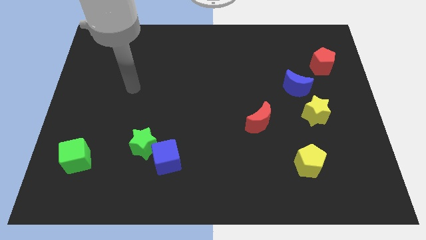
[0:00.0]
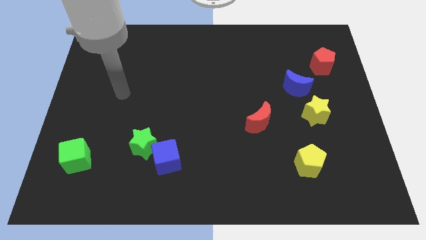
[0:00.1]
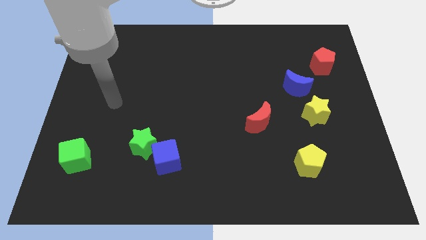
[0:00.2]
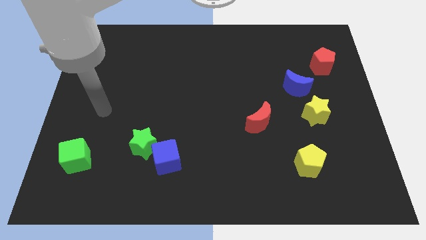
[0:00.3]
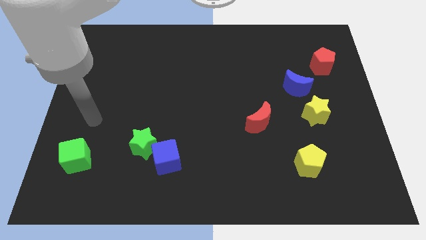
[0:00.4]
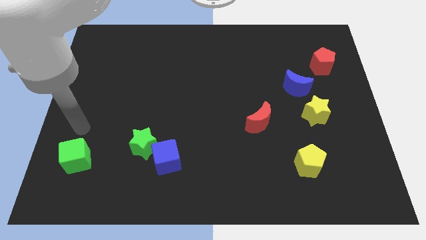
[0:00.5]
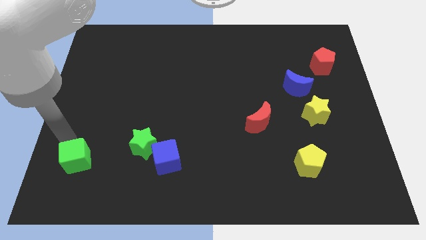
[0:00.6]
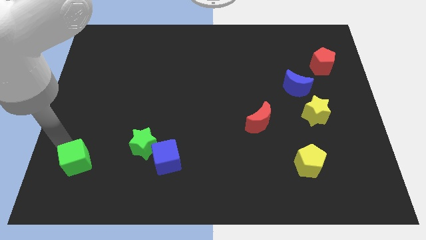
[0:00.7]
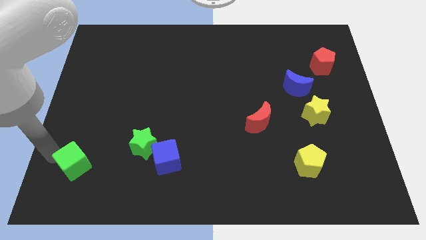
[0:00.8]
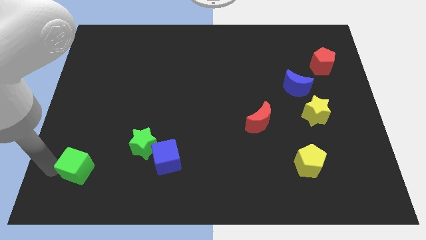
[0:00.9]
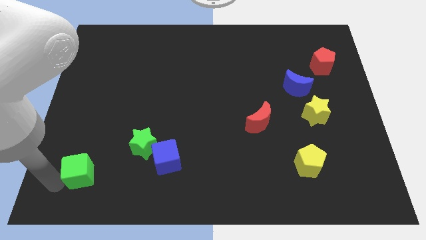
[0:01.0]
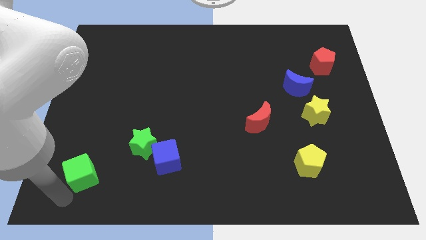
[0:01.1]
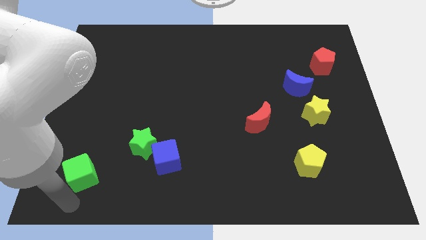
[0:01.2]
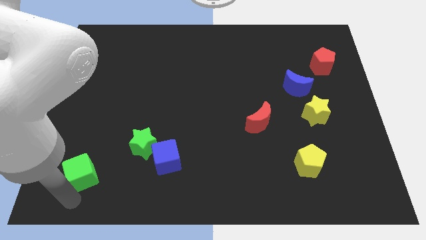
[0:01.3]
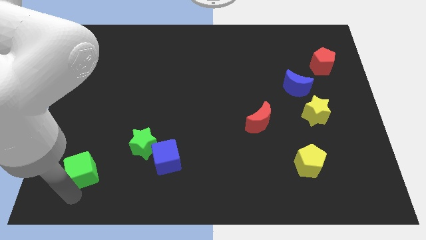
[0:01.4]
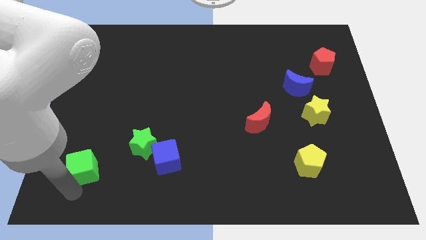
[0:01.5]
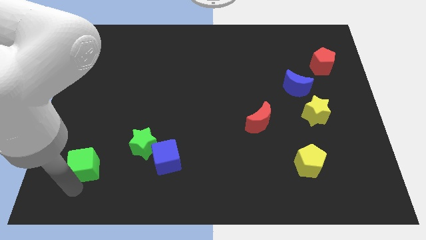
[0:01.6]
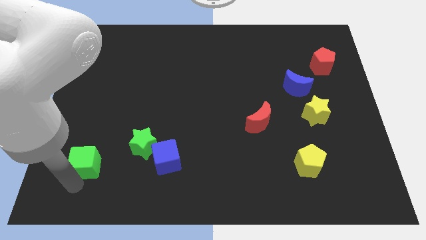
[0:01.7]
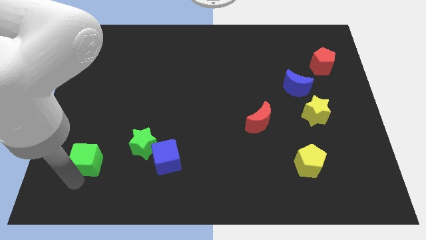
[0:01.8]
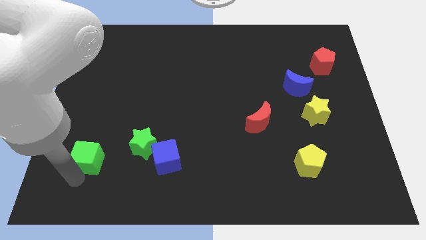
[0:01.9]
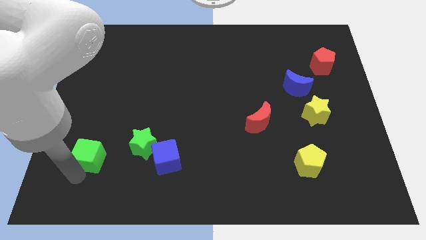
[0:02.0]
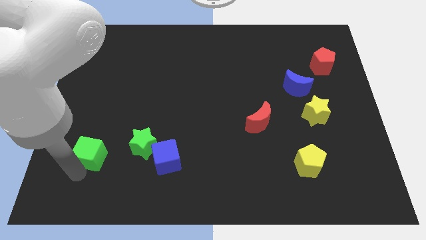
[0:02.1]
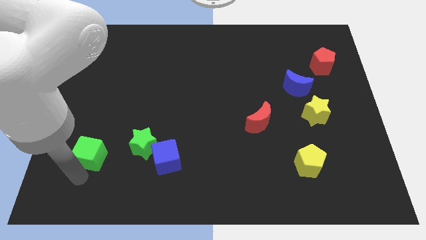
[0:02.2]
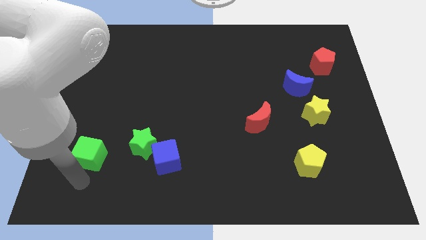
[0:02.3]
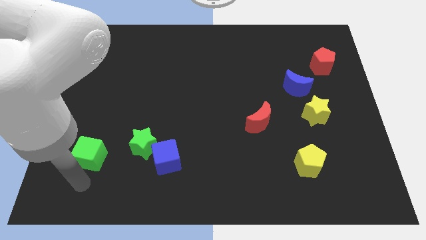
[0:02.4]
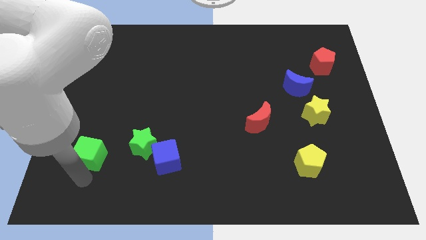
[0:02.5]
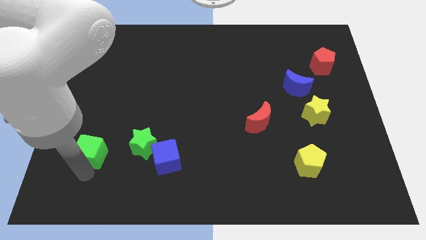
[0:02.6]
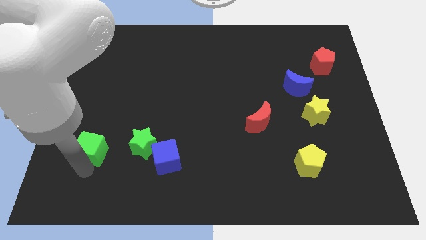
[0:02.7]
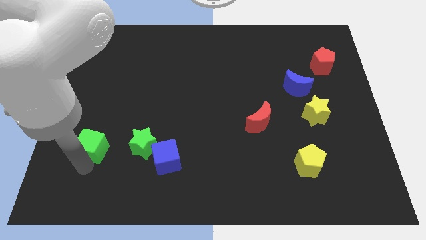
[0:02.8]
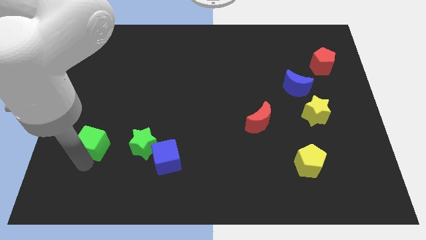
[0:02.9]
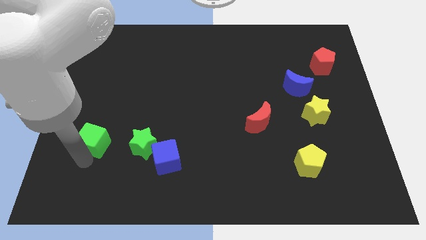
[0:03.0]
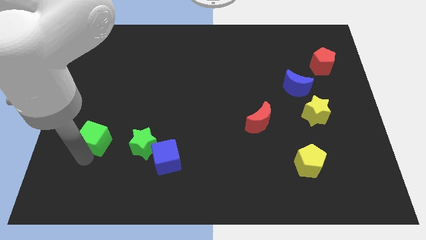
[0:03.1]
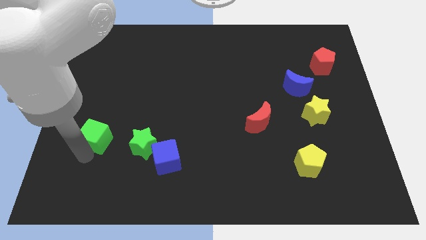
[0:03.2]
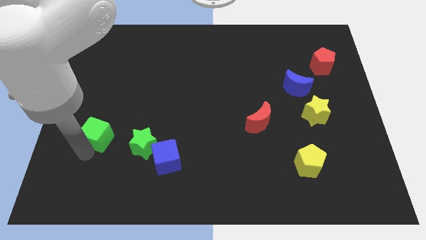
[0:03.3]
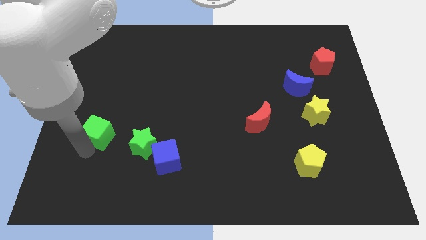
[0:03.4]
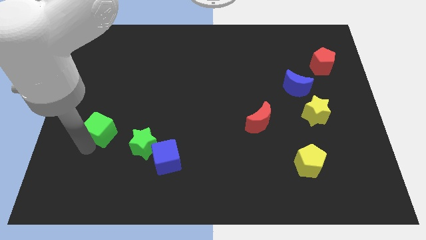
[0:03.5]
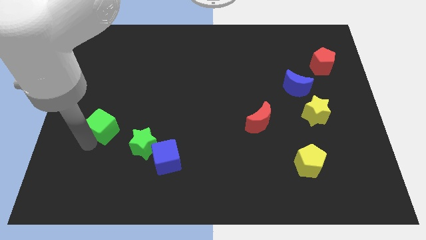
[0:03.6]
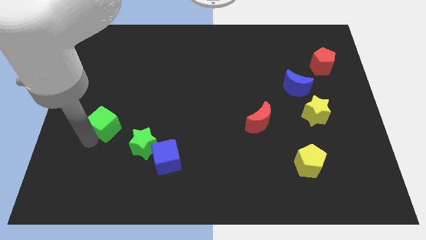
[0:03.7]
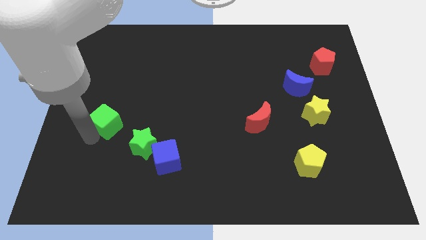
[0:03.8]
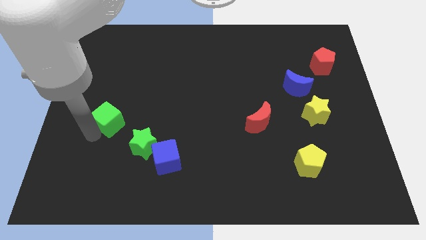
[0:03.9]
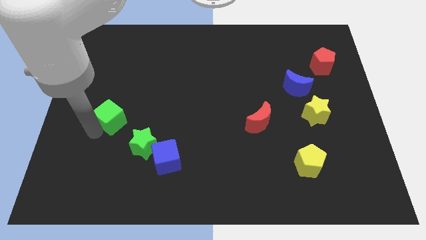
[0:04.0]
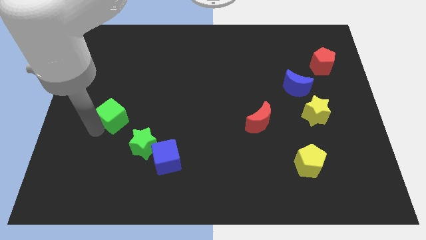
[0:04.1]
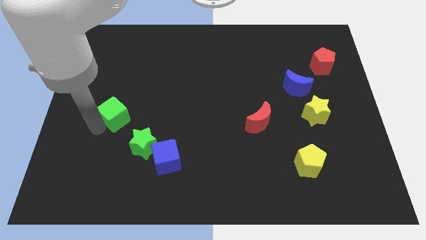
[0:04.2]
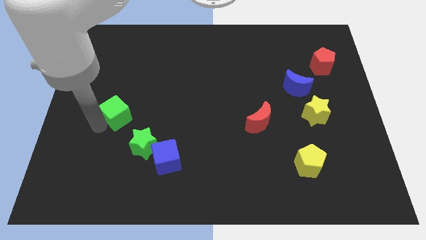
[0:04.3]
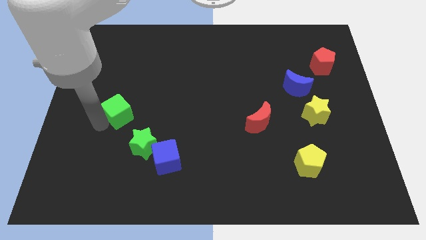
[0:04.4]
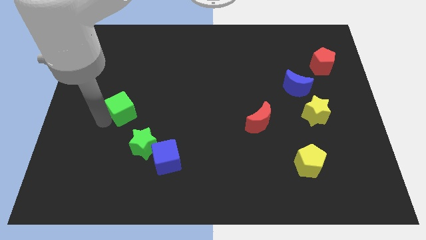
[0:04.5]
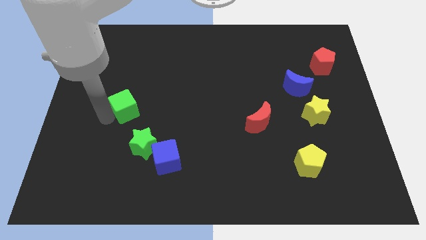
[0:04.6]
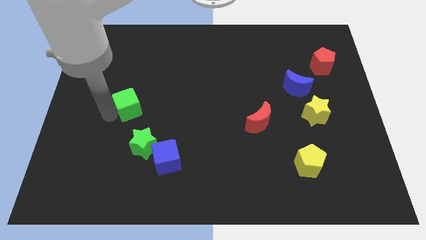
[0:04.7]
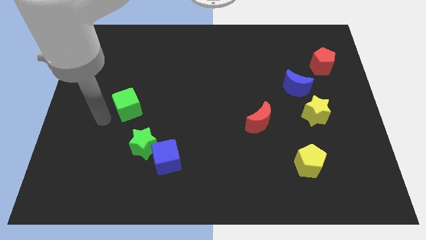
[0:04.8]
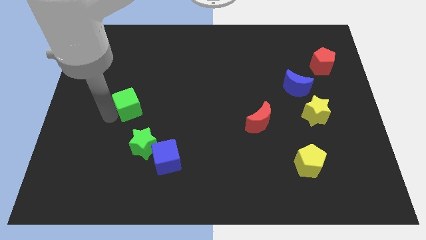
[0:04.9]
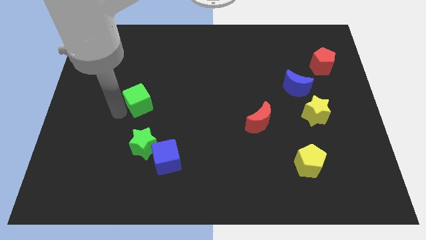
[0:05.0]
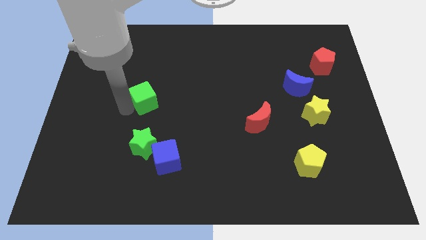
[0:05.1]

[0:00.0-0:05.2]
push the green cube up and to the right

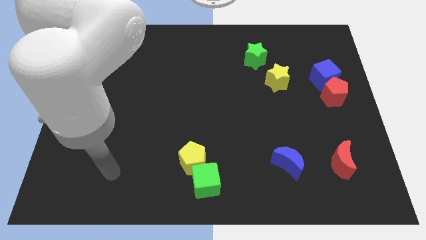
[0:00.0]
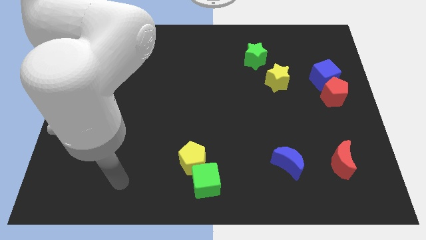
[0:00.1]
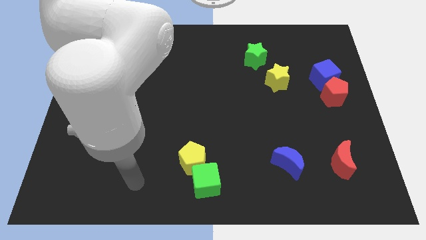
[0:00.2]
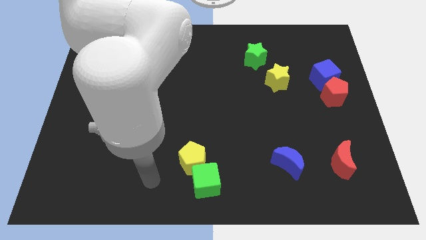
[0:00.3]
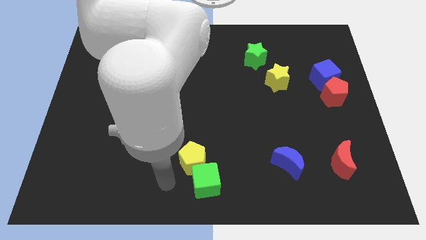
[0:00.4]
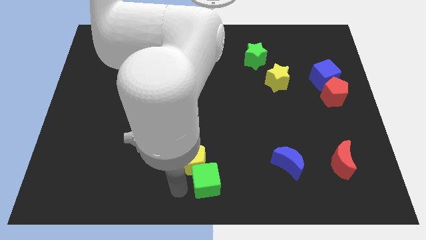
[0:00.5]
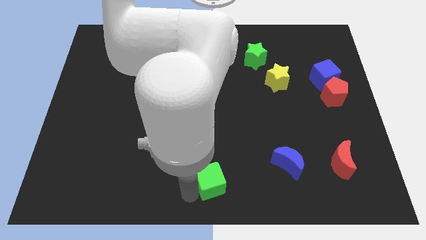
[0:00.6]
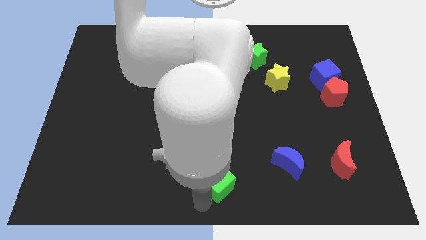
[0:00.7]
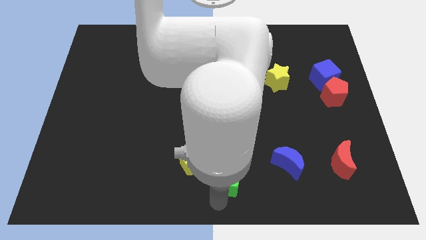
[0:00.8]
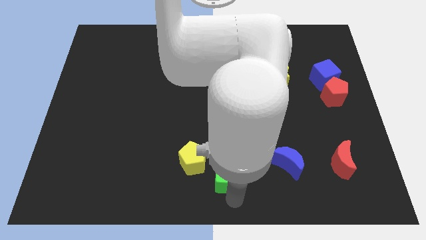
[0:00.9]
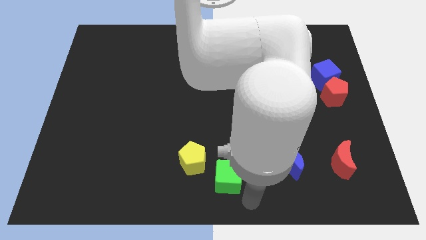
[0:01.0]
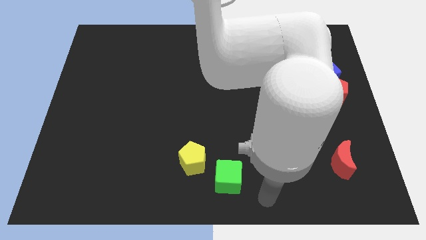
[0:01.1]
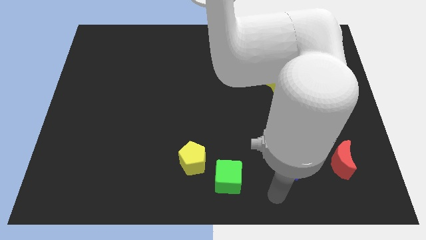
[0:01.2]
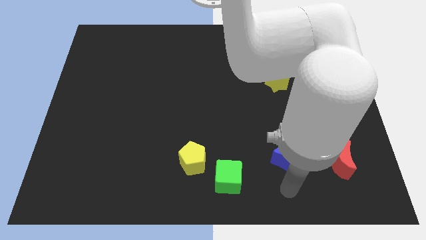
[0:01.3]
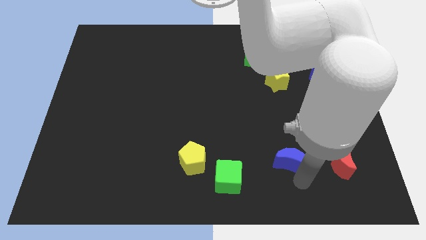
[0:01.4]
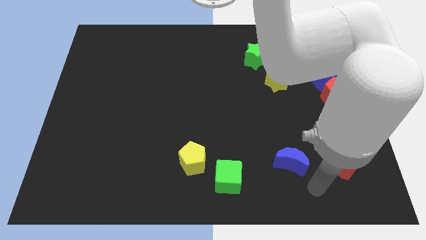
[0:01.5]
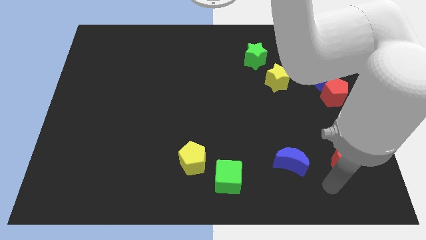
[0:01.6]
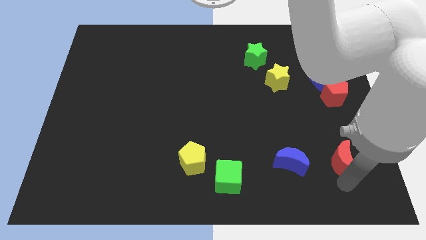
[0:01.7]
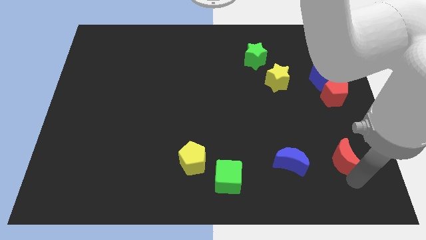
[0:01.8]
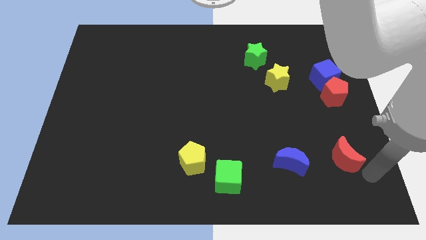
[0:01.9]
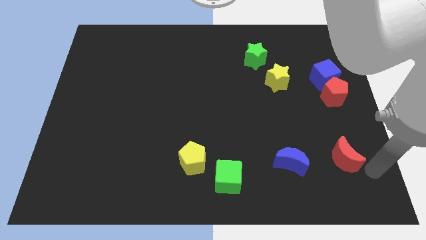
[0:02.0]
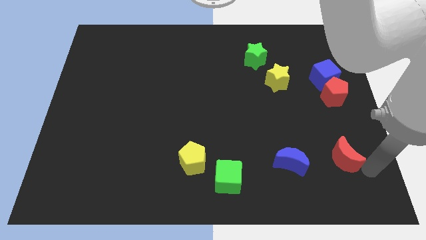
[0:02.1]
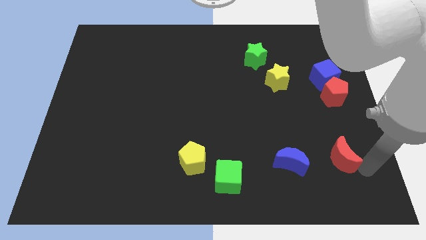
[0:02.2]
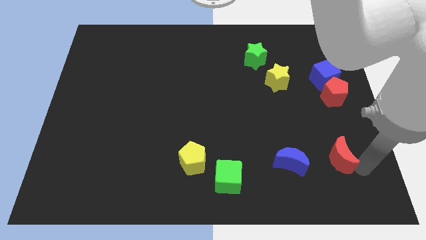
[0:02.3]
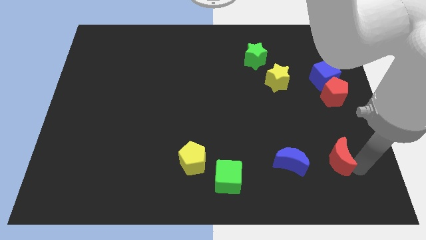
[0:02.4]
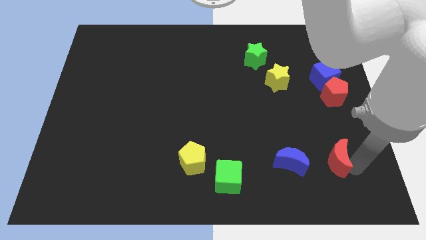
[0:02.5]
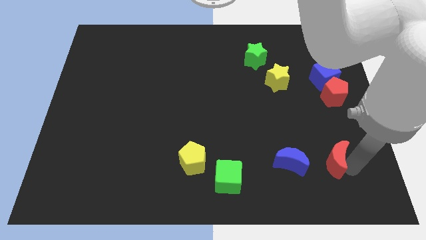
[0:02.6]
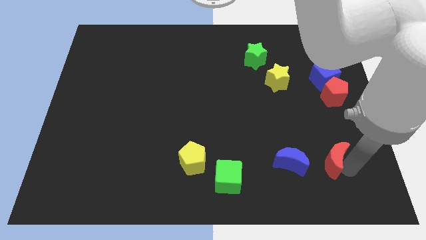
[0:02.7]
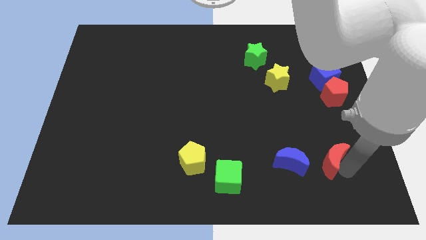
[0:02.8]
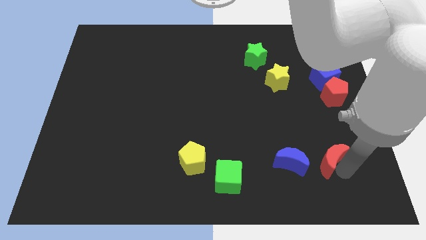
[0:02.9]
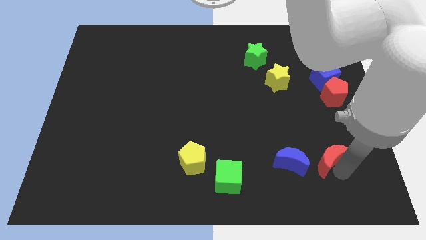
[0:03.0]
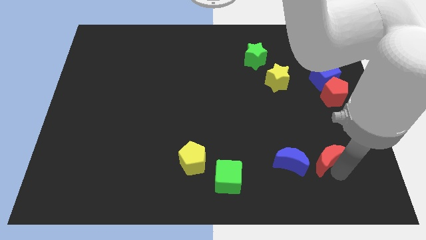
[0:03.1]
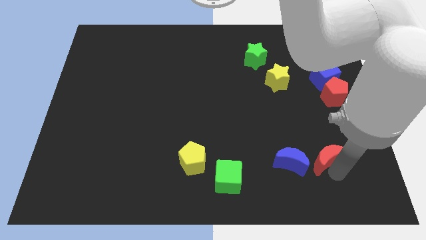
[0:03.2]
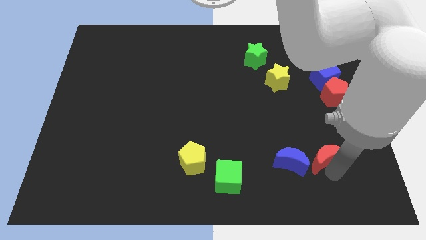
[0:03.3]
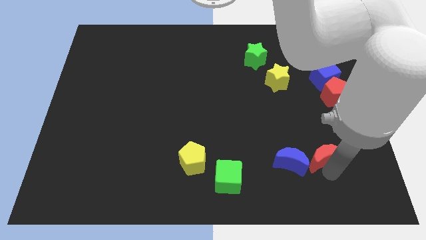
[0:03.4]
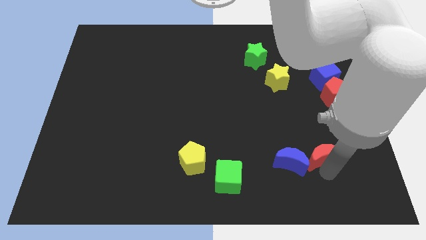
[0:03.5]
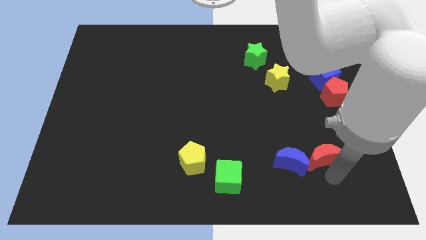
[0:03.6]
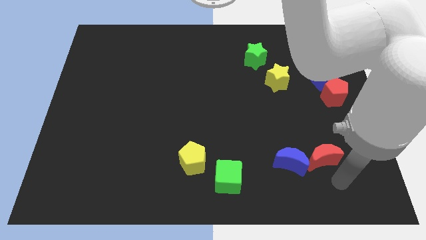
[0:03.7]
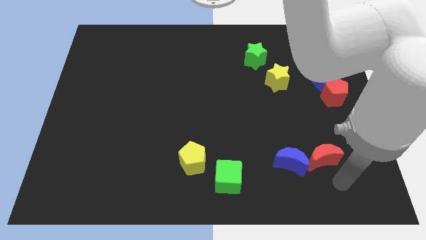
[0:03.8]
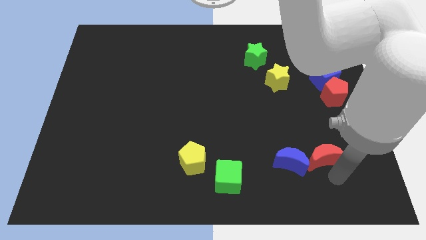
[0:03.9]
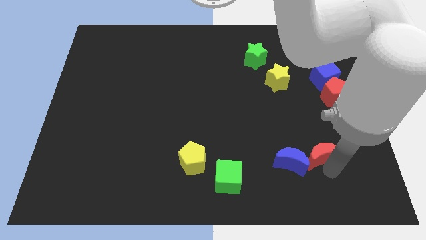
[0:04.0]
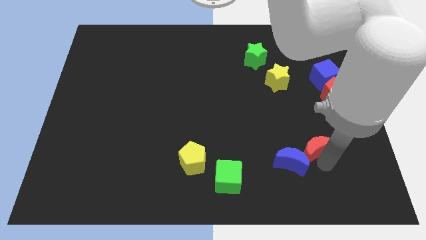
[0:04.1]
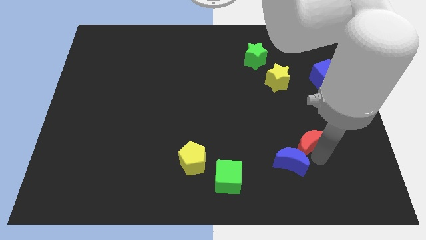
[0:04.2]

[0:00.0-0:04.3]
push the red moon a bit upwards and to the left diagonally
